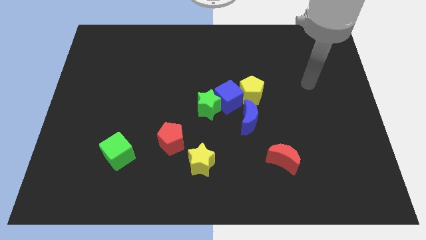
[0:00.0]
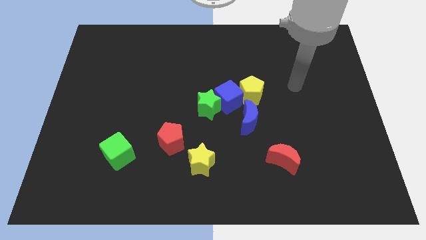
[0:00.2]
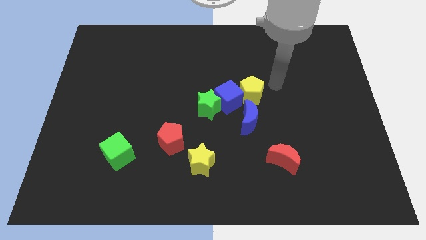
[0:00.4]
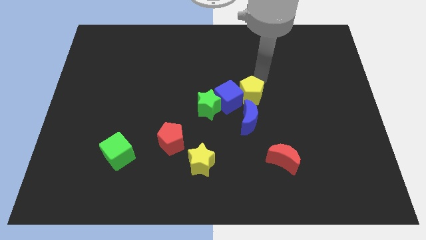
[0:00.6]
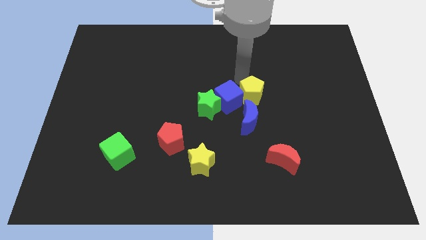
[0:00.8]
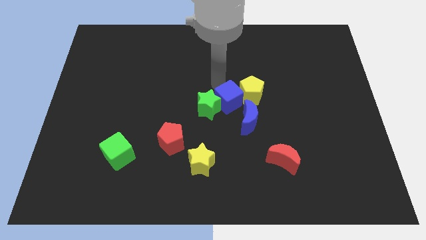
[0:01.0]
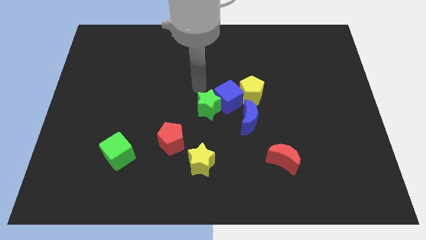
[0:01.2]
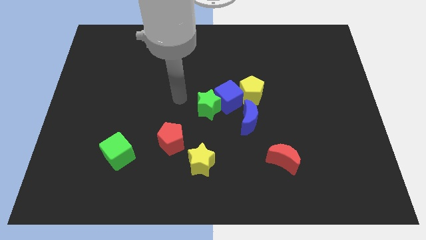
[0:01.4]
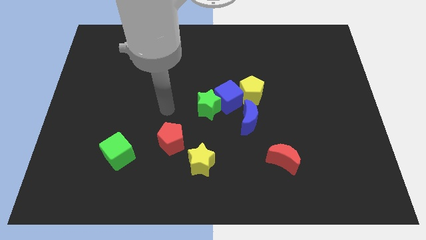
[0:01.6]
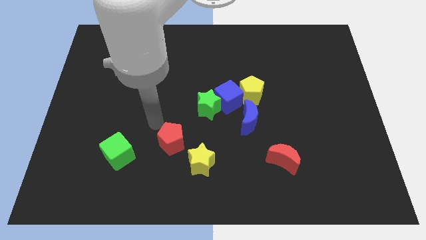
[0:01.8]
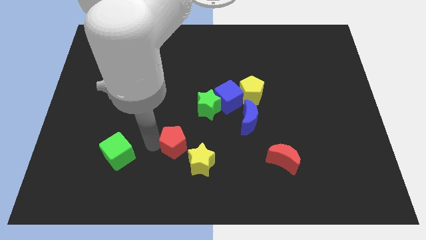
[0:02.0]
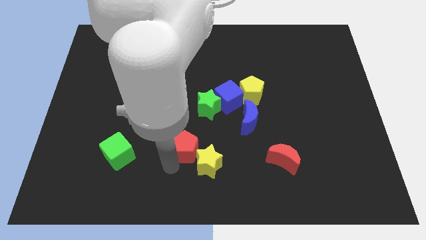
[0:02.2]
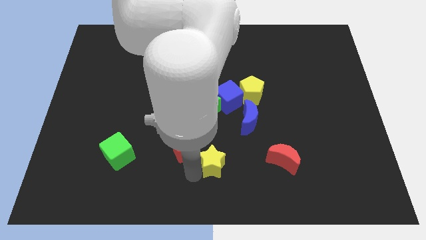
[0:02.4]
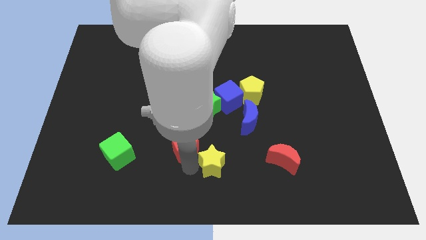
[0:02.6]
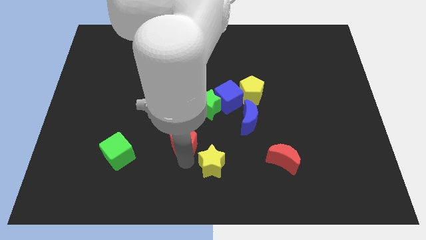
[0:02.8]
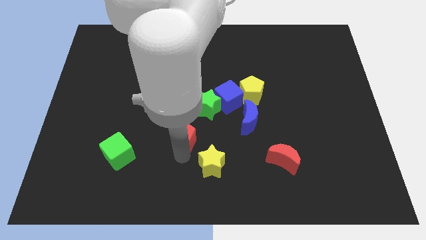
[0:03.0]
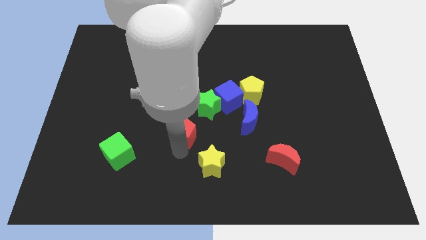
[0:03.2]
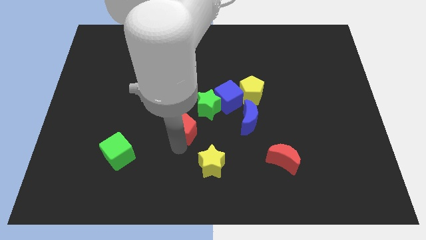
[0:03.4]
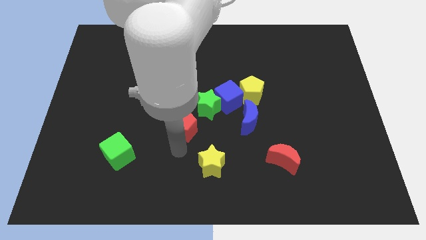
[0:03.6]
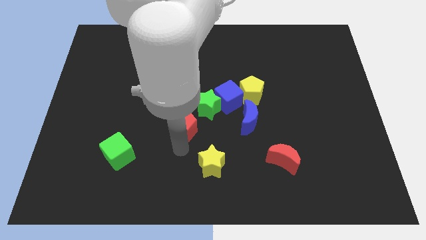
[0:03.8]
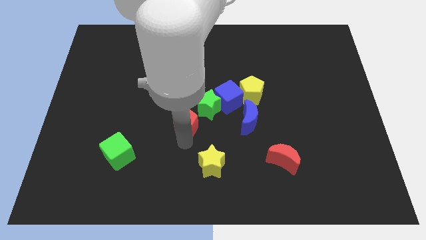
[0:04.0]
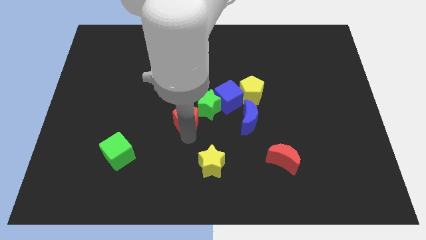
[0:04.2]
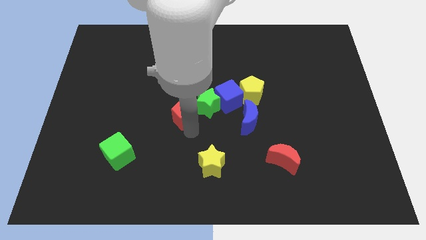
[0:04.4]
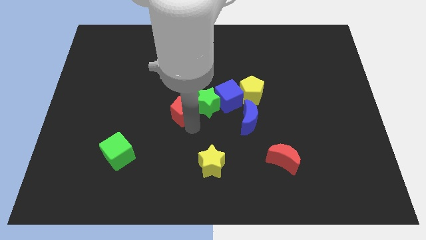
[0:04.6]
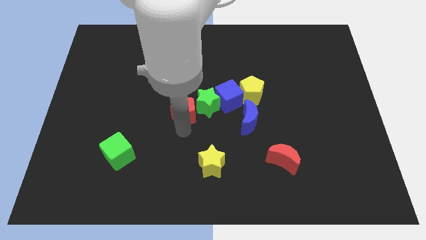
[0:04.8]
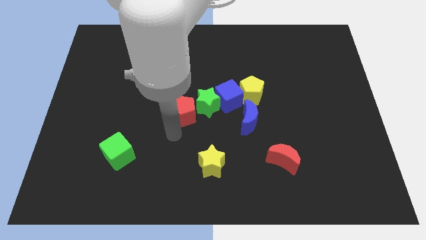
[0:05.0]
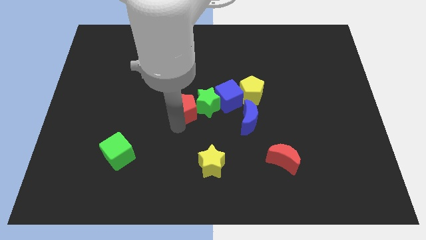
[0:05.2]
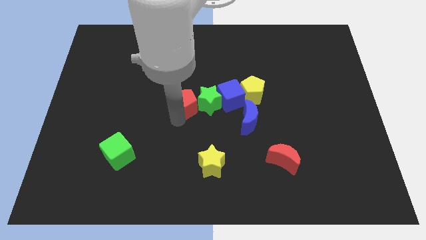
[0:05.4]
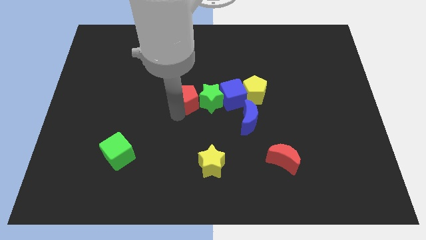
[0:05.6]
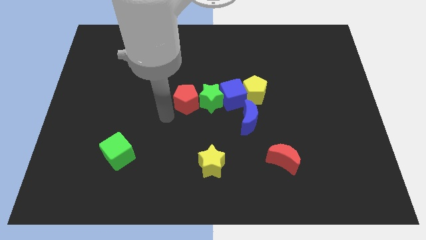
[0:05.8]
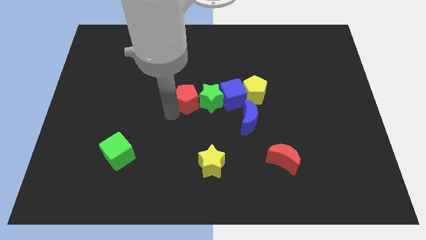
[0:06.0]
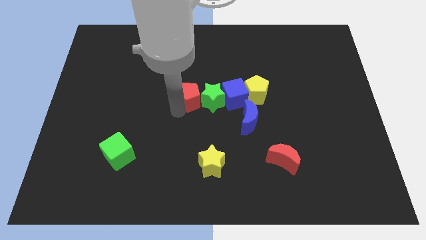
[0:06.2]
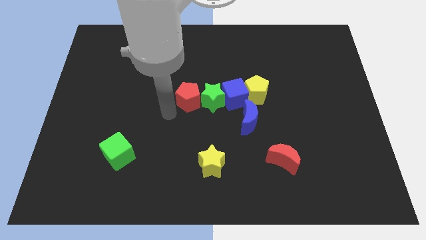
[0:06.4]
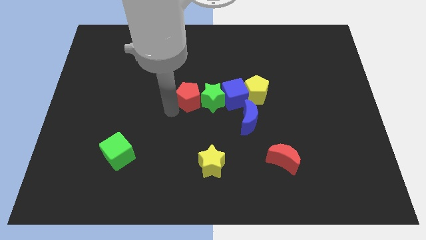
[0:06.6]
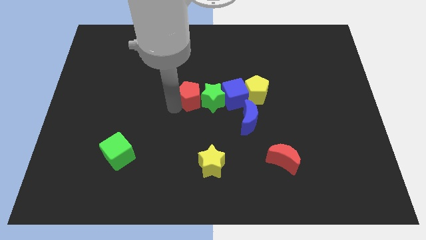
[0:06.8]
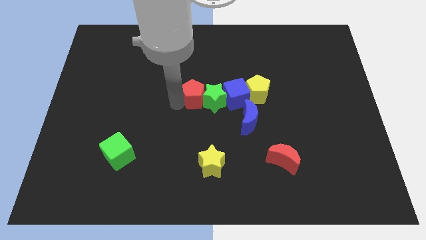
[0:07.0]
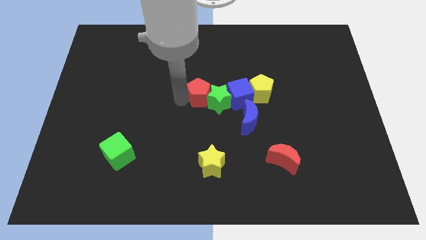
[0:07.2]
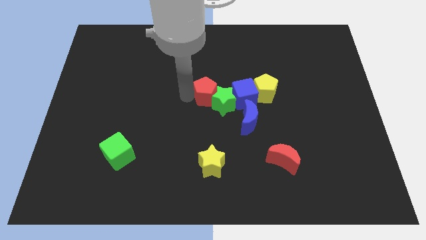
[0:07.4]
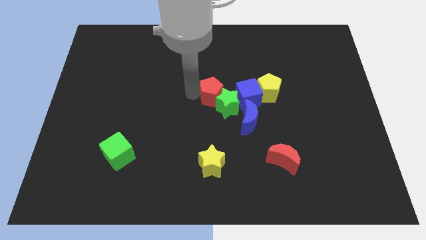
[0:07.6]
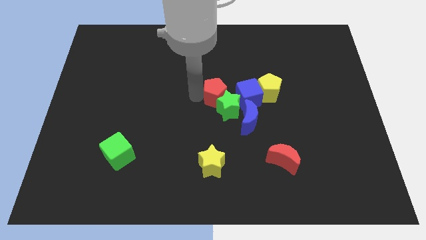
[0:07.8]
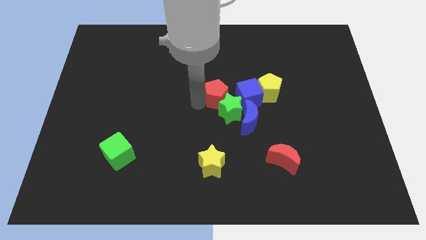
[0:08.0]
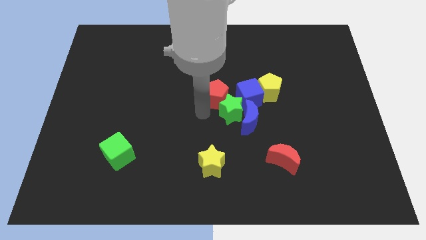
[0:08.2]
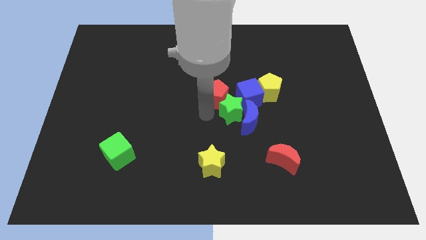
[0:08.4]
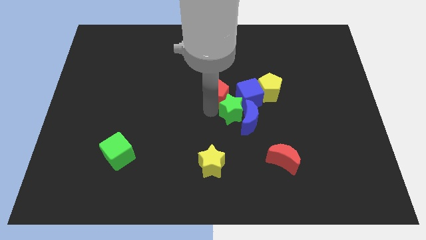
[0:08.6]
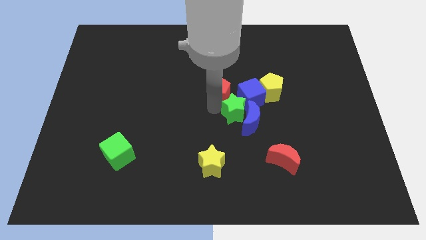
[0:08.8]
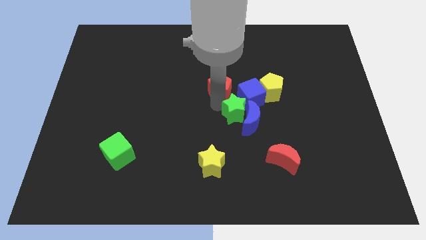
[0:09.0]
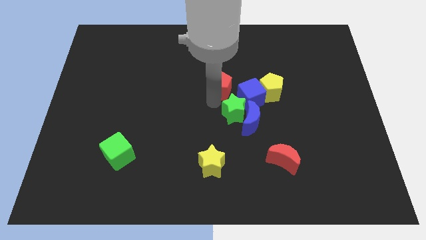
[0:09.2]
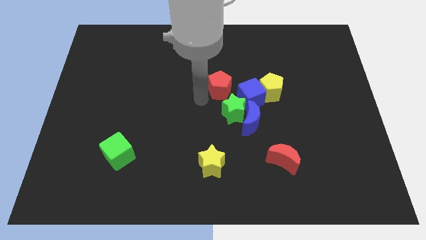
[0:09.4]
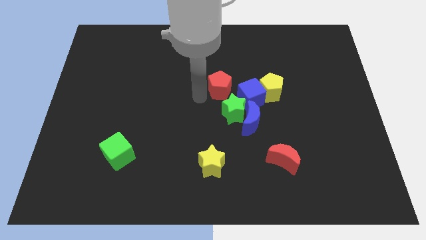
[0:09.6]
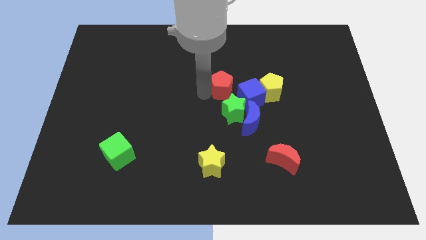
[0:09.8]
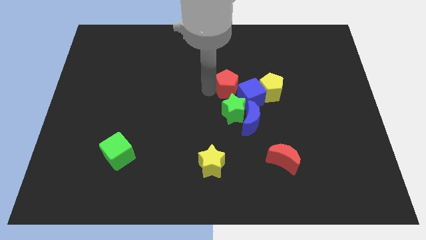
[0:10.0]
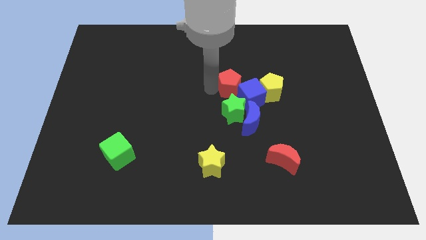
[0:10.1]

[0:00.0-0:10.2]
slide the red pentagon up and to the right

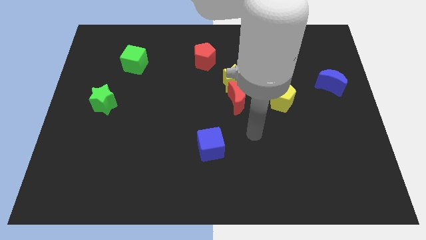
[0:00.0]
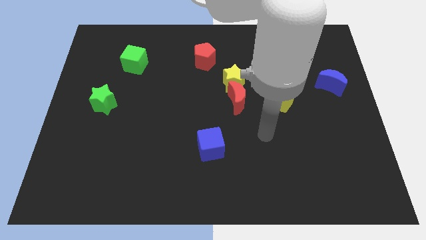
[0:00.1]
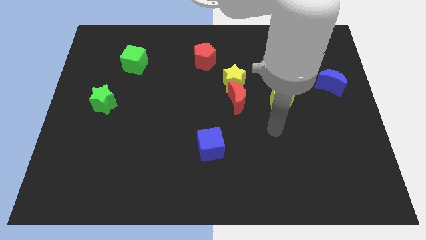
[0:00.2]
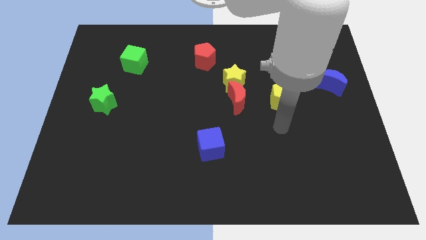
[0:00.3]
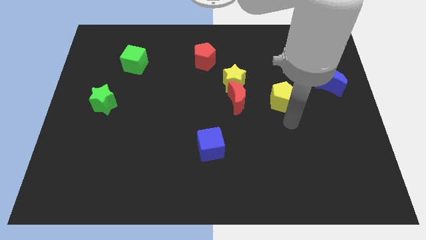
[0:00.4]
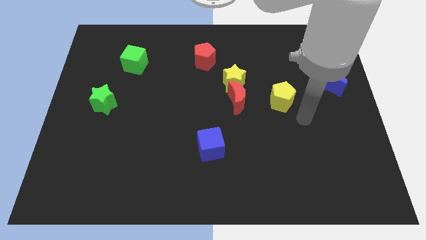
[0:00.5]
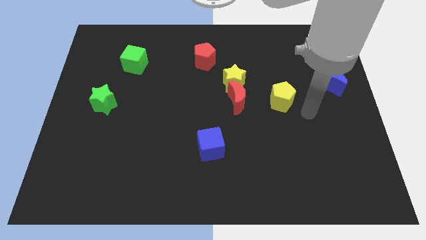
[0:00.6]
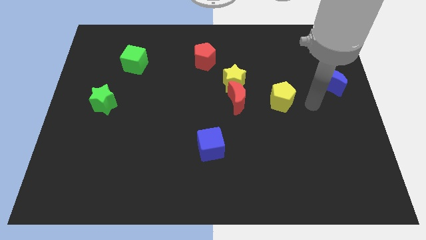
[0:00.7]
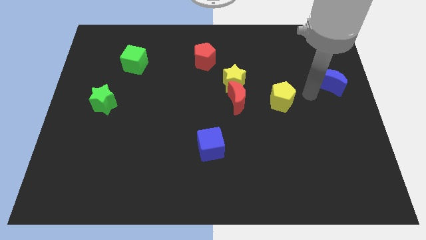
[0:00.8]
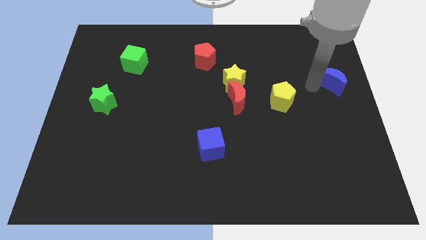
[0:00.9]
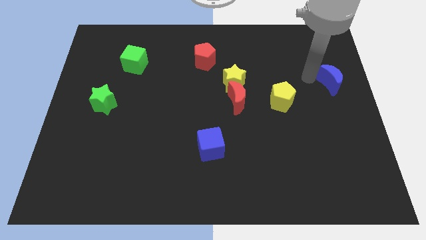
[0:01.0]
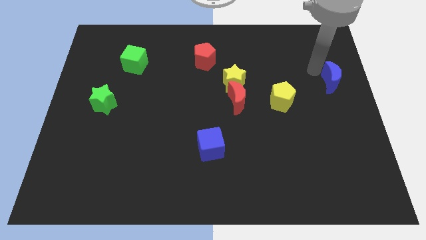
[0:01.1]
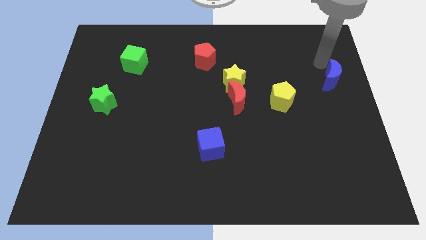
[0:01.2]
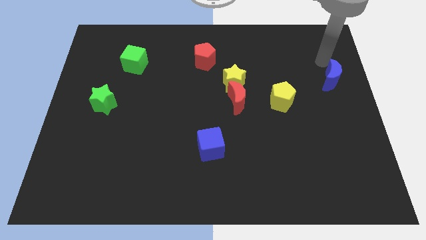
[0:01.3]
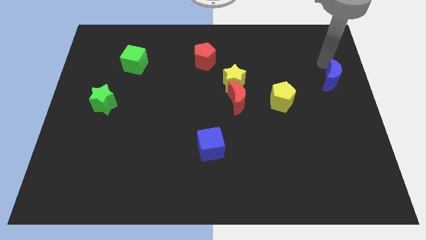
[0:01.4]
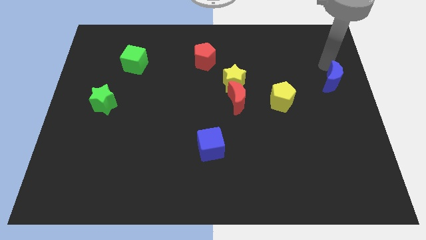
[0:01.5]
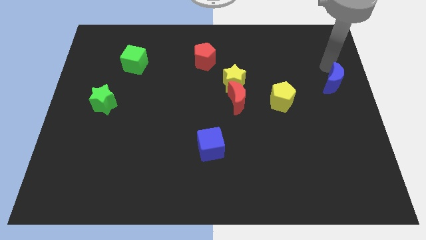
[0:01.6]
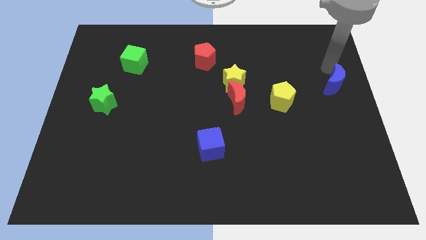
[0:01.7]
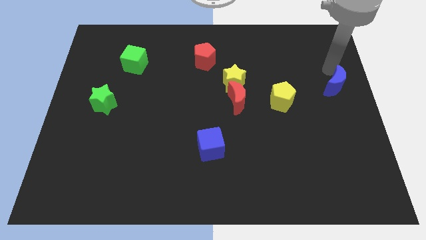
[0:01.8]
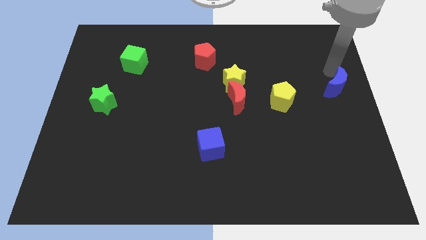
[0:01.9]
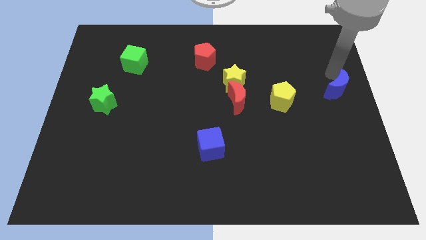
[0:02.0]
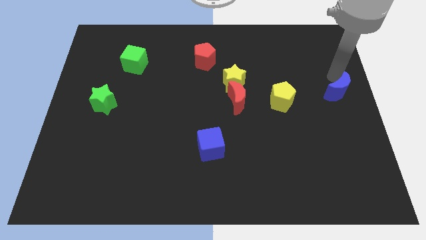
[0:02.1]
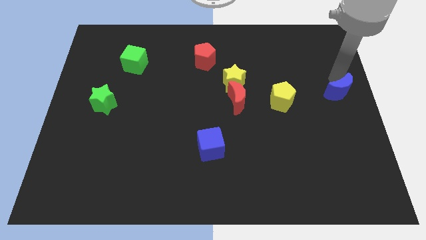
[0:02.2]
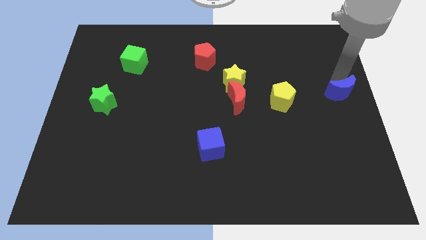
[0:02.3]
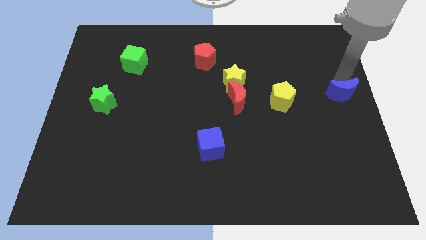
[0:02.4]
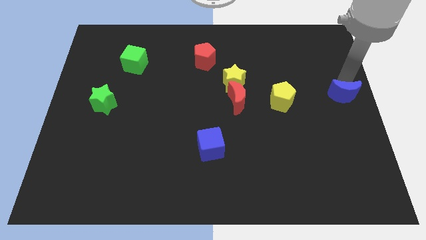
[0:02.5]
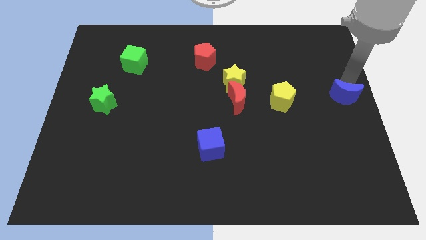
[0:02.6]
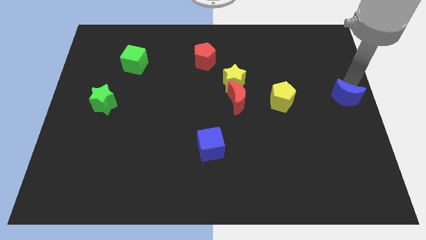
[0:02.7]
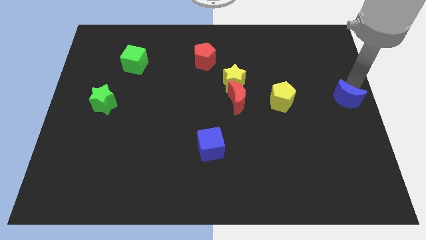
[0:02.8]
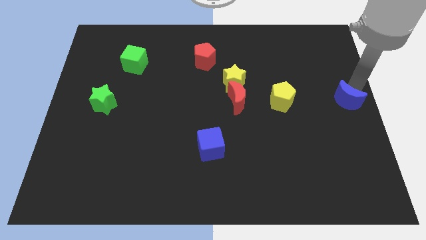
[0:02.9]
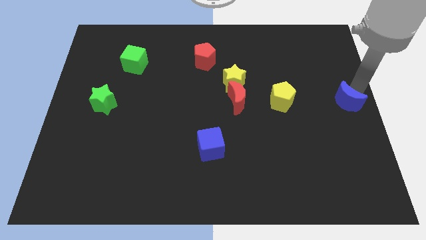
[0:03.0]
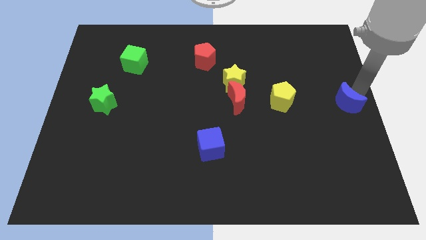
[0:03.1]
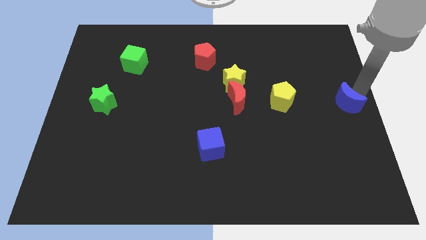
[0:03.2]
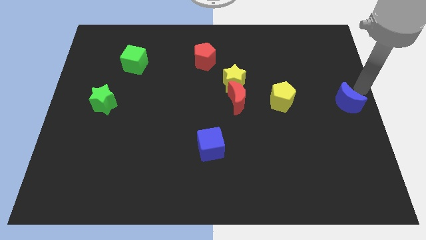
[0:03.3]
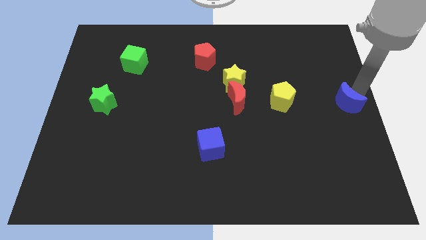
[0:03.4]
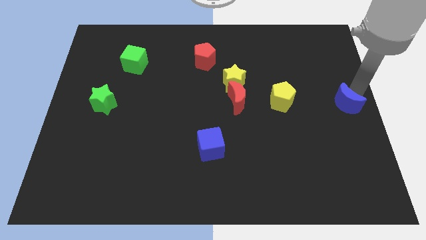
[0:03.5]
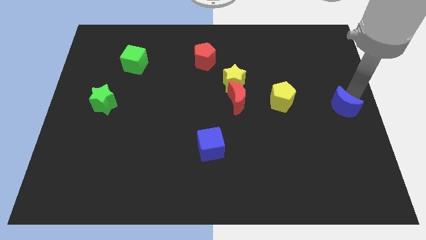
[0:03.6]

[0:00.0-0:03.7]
move the blue moon downwards somewhat
